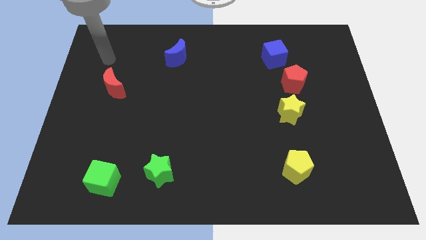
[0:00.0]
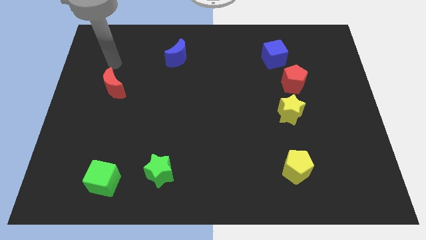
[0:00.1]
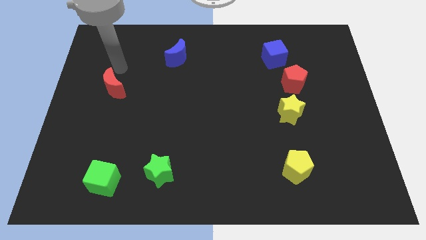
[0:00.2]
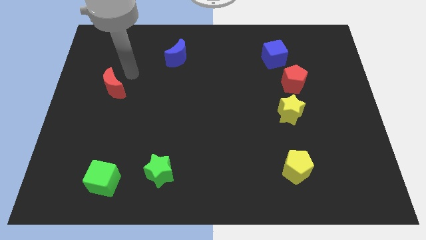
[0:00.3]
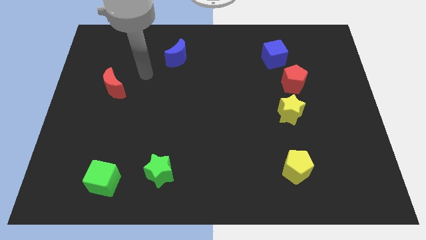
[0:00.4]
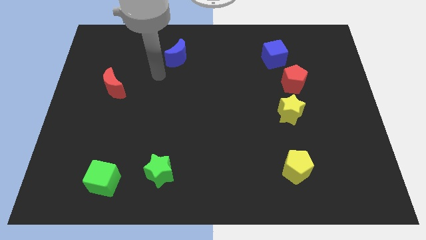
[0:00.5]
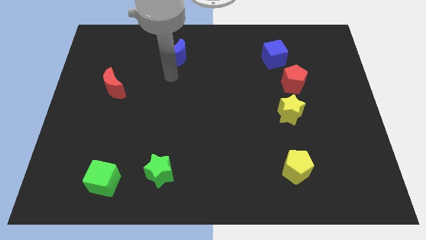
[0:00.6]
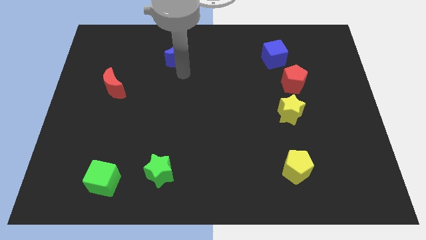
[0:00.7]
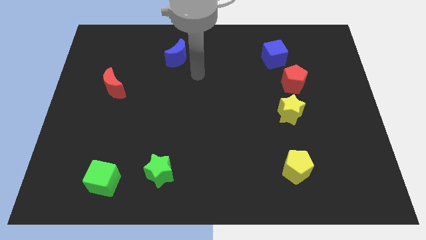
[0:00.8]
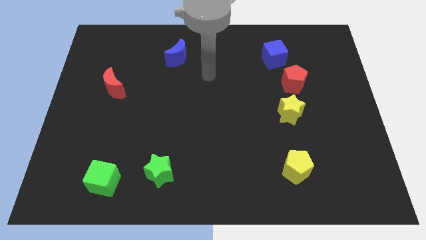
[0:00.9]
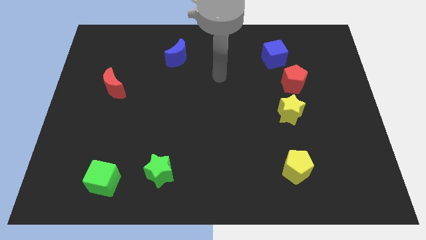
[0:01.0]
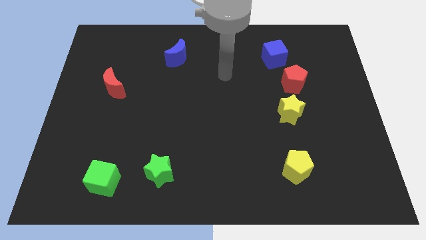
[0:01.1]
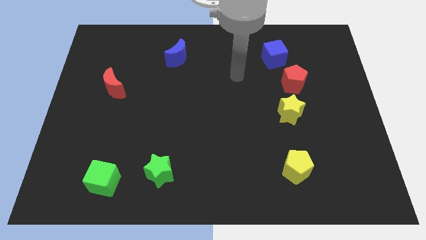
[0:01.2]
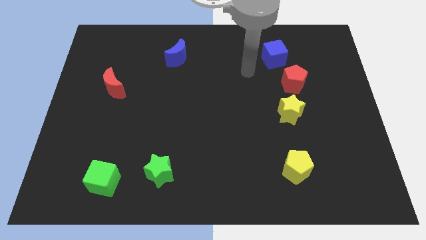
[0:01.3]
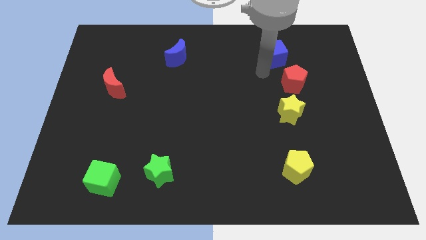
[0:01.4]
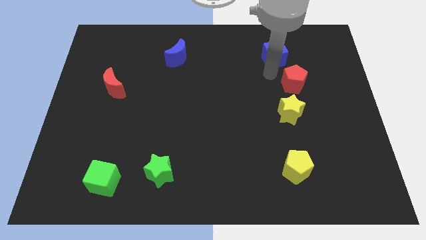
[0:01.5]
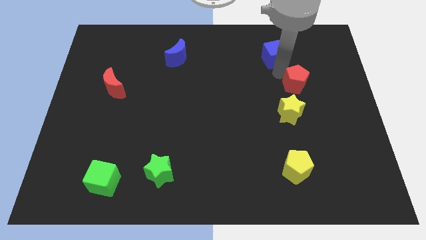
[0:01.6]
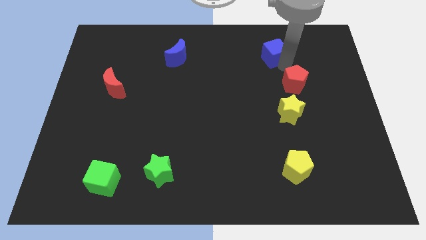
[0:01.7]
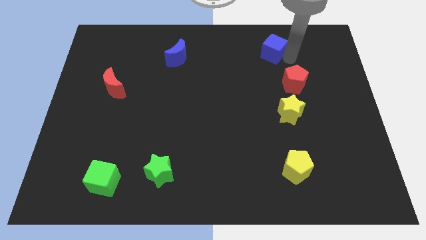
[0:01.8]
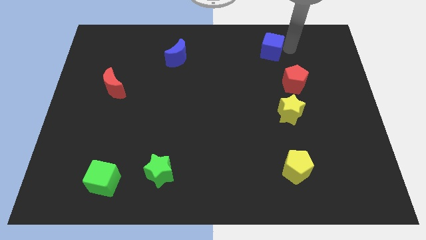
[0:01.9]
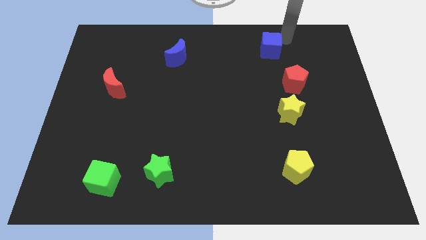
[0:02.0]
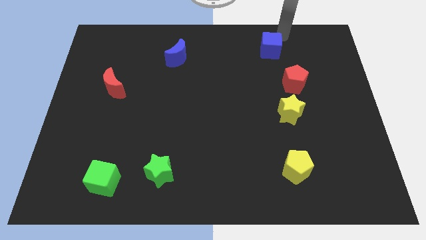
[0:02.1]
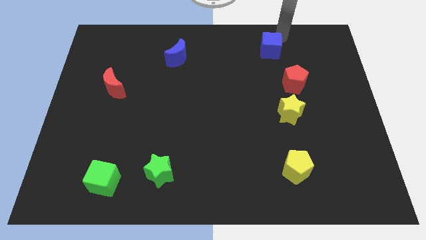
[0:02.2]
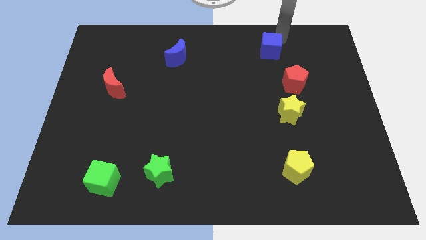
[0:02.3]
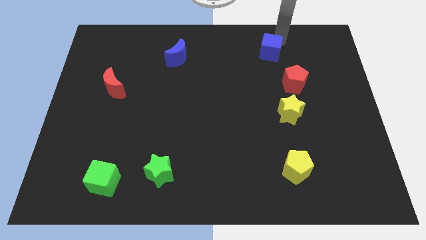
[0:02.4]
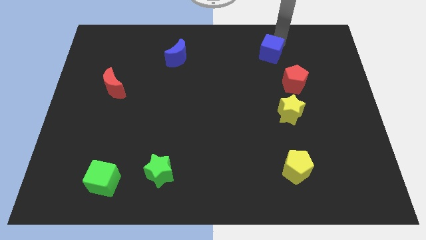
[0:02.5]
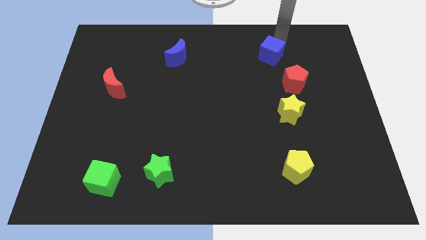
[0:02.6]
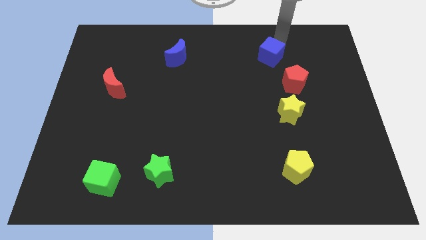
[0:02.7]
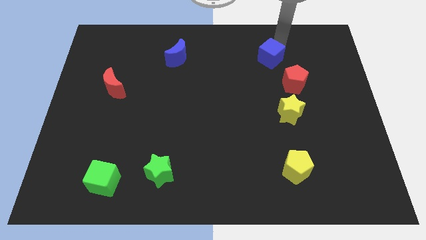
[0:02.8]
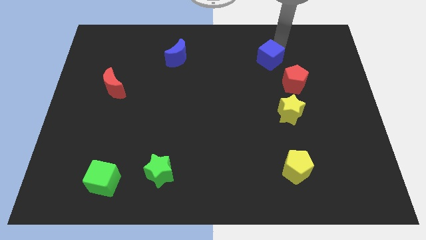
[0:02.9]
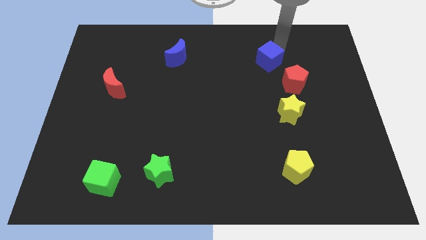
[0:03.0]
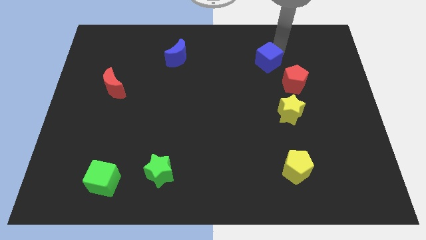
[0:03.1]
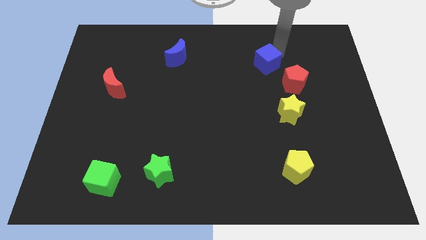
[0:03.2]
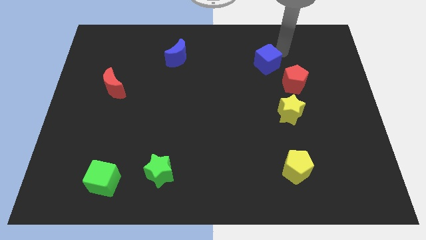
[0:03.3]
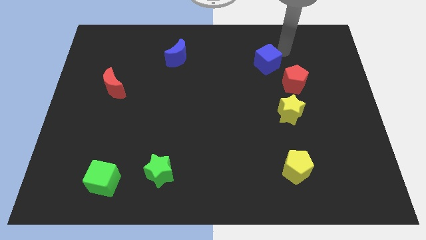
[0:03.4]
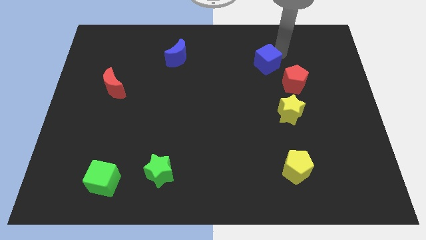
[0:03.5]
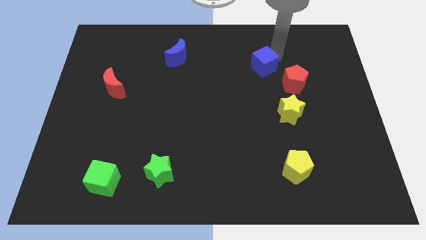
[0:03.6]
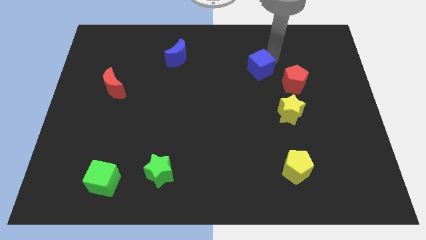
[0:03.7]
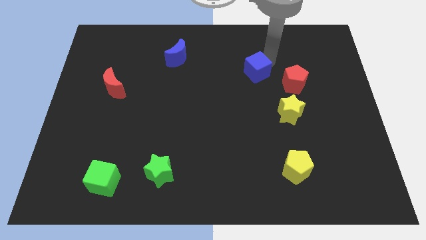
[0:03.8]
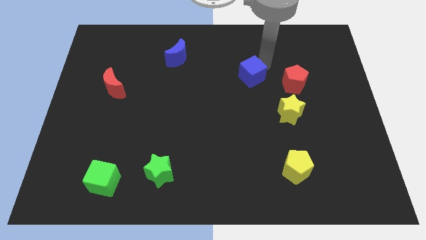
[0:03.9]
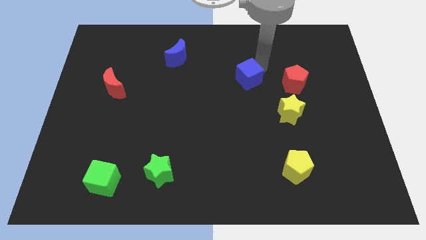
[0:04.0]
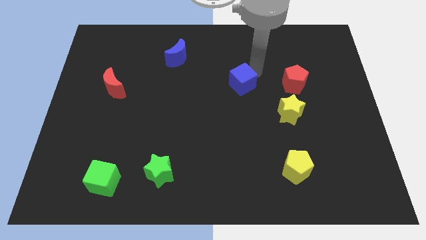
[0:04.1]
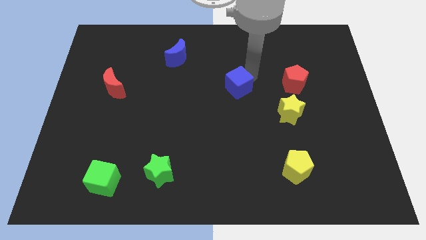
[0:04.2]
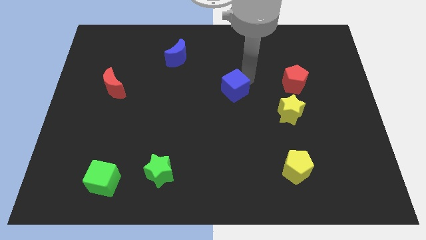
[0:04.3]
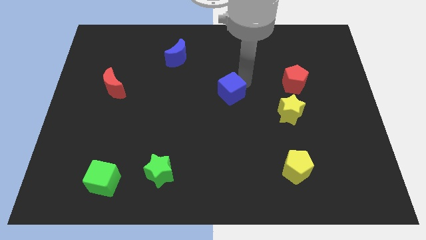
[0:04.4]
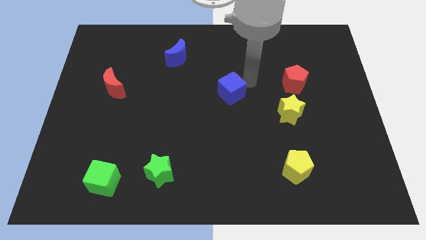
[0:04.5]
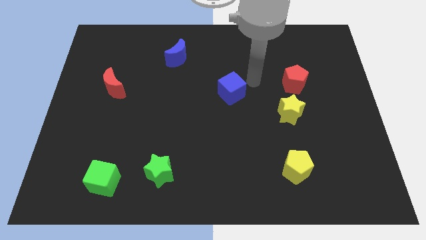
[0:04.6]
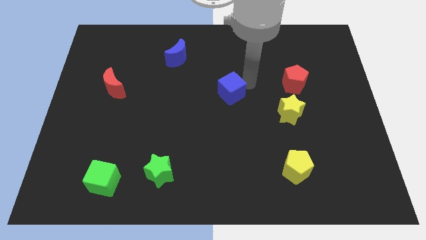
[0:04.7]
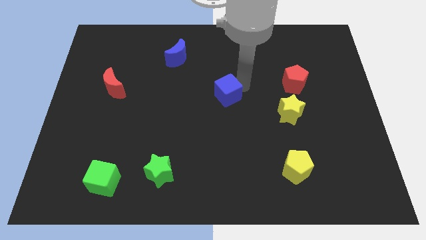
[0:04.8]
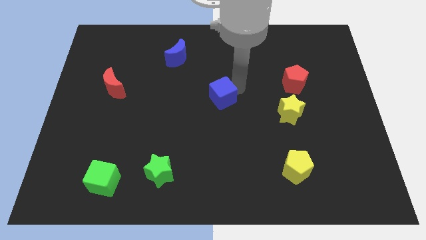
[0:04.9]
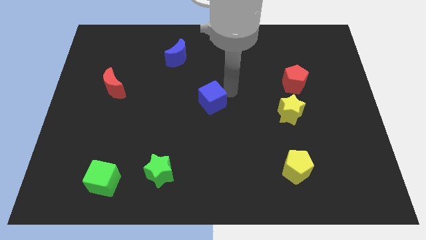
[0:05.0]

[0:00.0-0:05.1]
slide the blue cube diagonally downwards and to the left

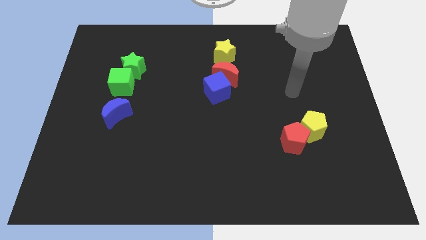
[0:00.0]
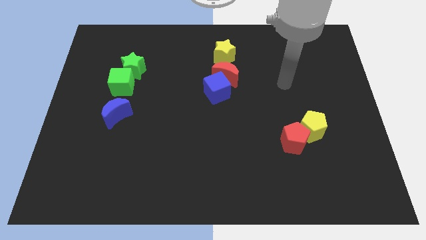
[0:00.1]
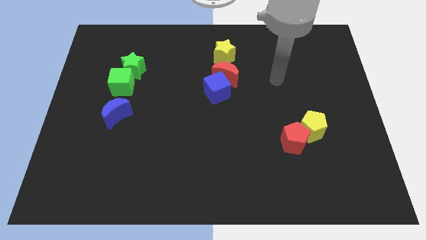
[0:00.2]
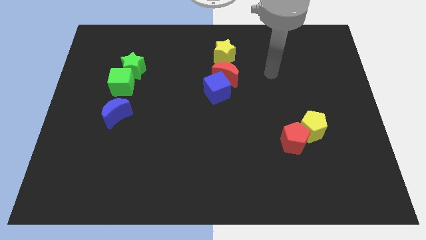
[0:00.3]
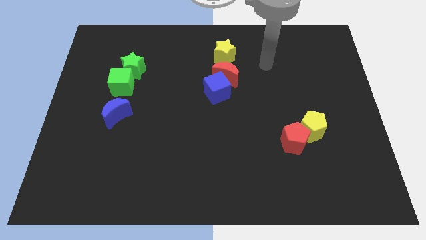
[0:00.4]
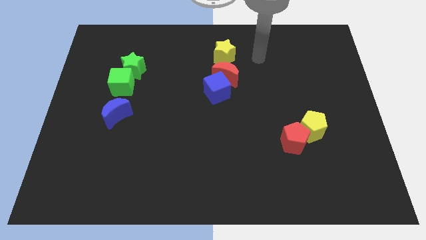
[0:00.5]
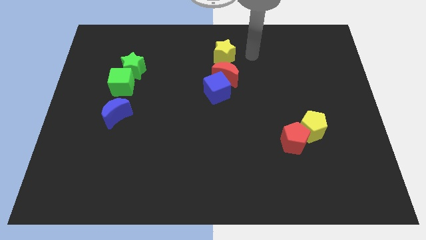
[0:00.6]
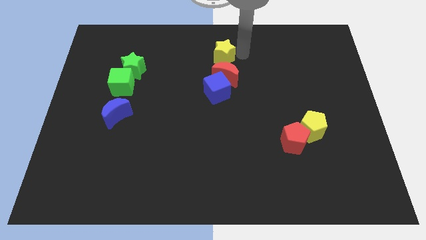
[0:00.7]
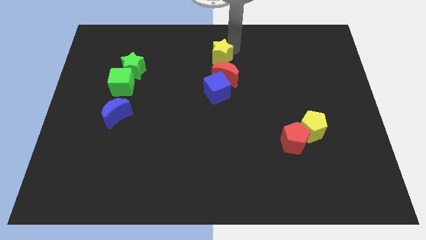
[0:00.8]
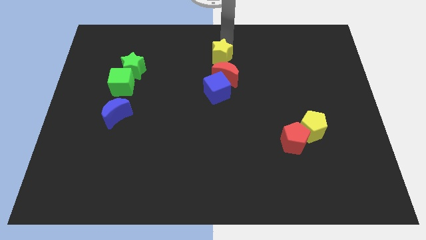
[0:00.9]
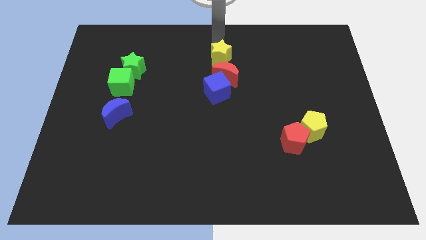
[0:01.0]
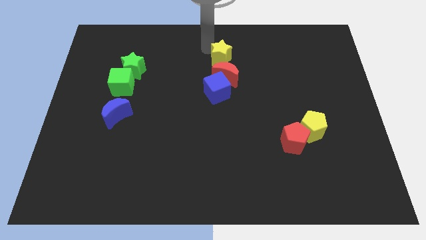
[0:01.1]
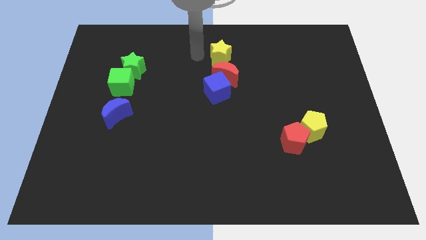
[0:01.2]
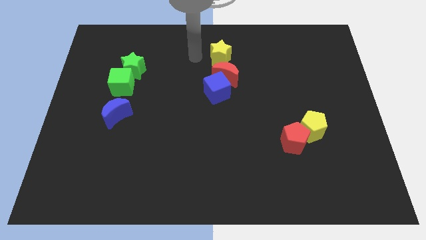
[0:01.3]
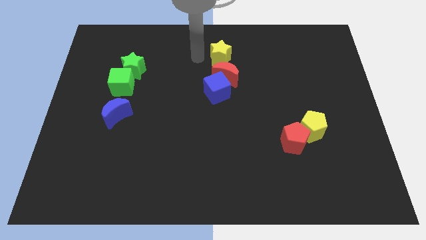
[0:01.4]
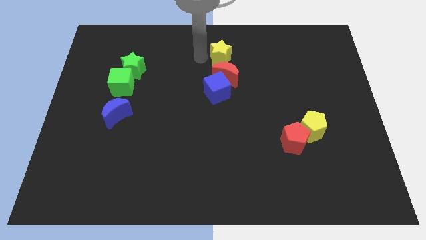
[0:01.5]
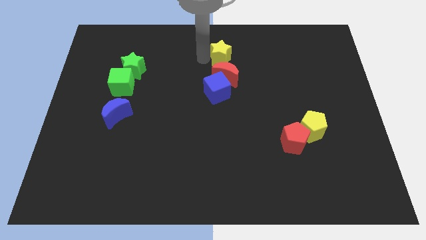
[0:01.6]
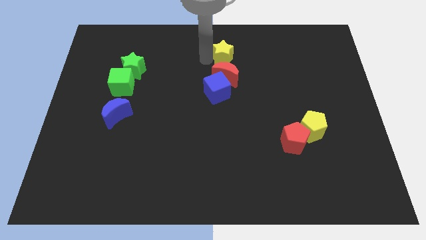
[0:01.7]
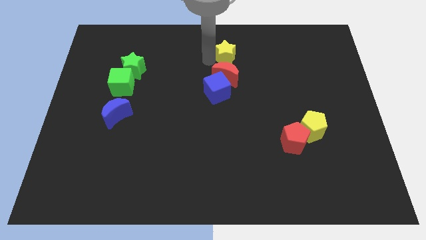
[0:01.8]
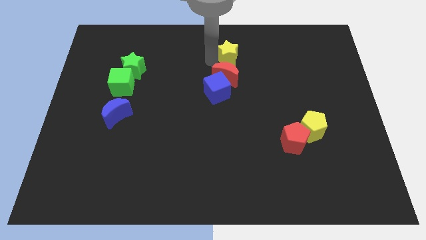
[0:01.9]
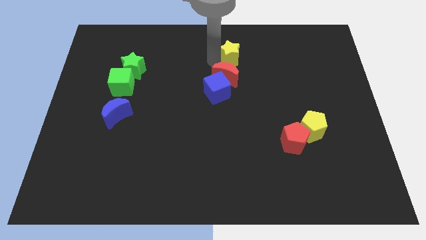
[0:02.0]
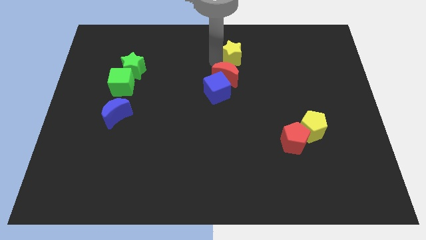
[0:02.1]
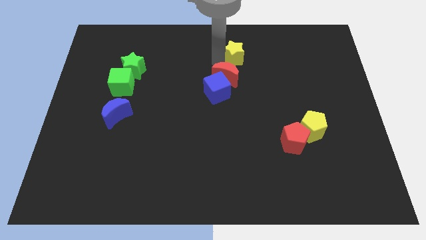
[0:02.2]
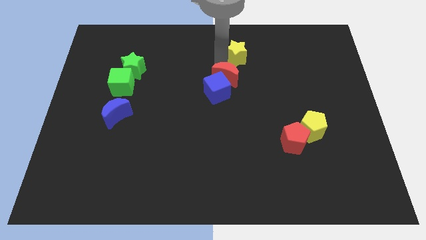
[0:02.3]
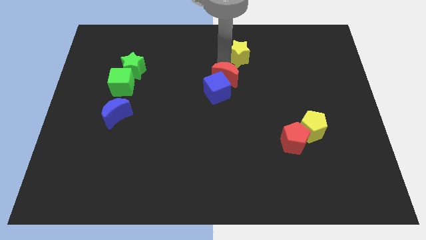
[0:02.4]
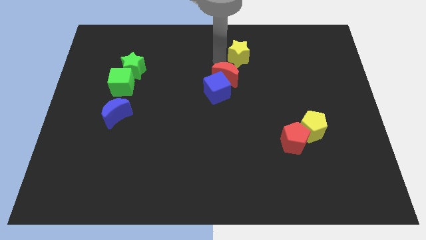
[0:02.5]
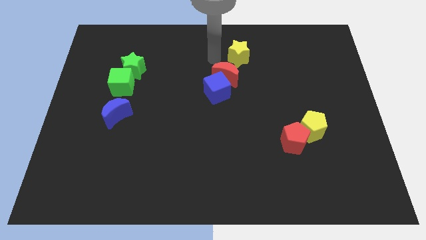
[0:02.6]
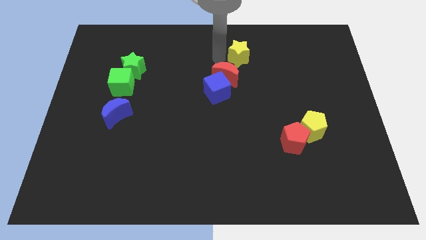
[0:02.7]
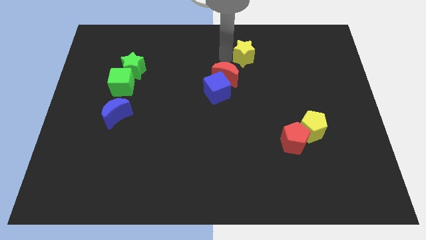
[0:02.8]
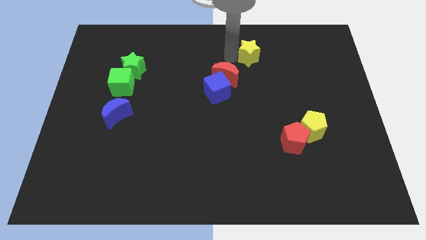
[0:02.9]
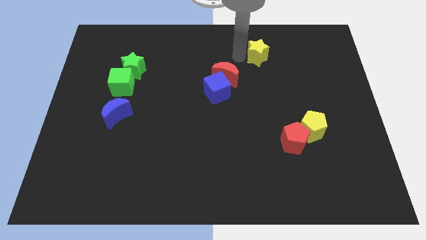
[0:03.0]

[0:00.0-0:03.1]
slightly move the yellow star right
